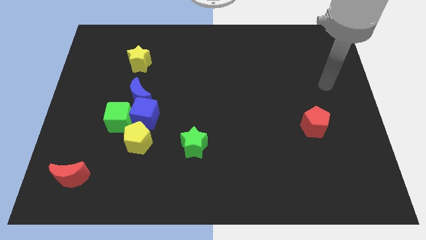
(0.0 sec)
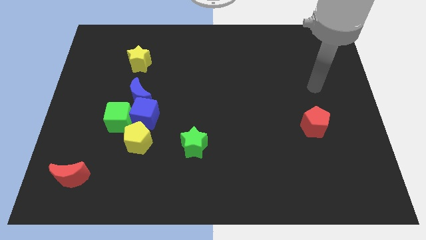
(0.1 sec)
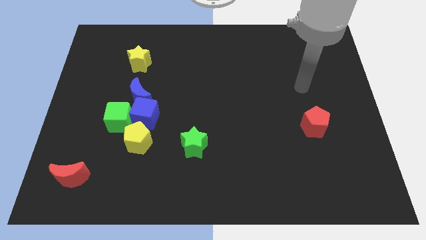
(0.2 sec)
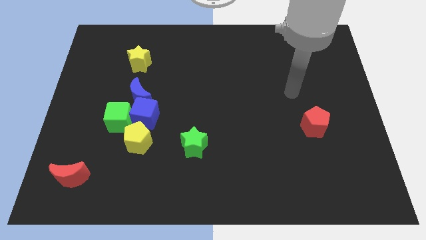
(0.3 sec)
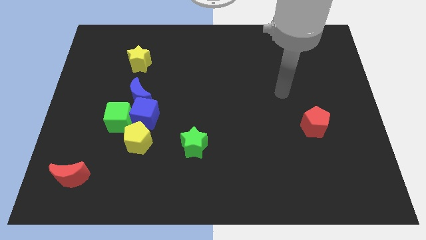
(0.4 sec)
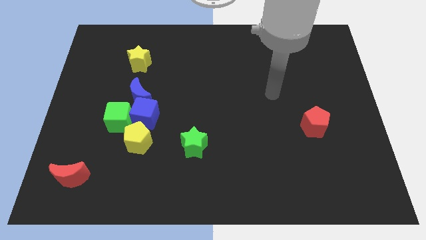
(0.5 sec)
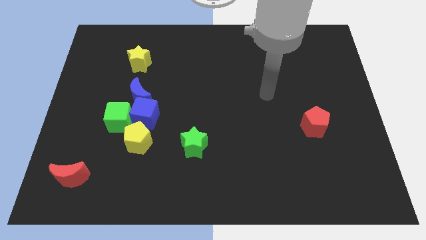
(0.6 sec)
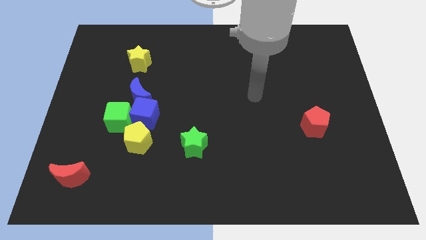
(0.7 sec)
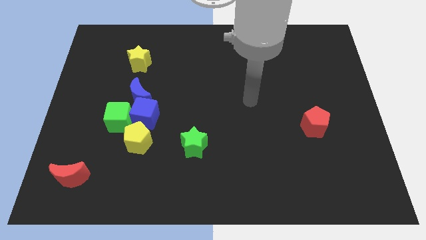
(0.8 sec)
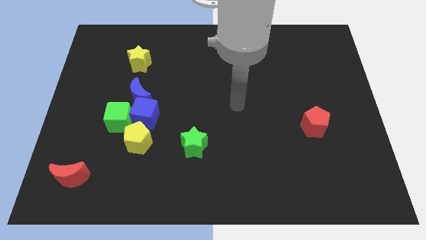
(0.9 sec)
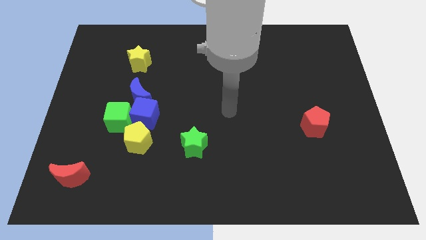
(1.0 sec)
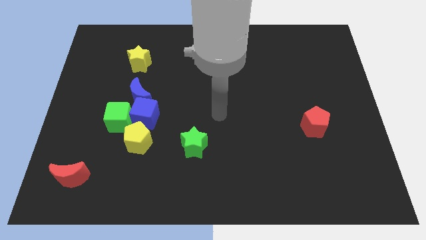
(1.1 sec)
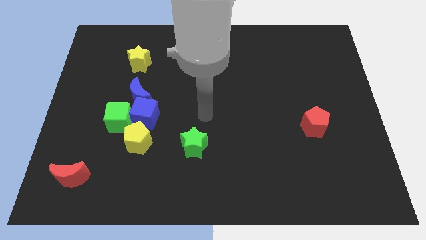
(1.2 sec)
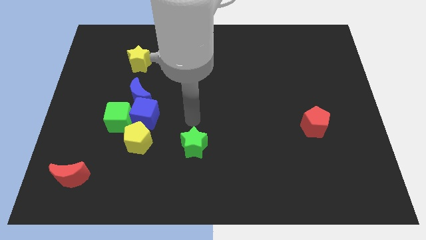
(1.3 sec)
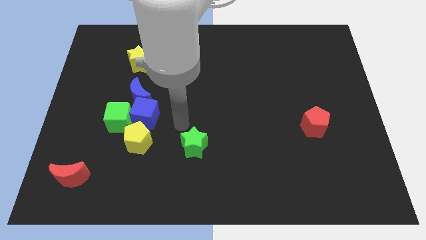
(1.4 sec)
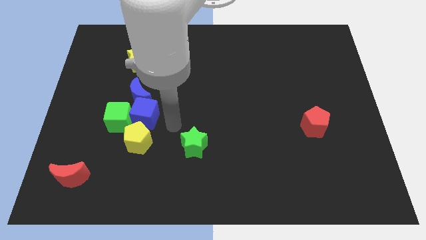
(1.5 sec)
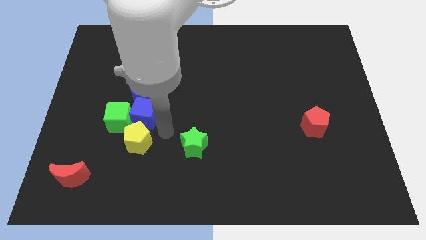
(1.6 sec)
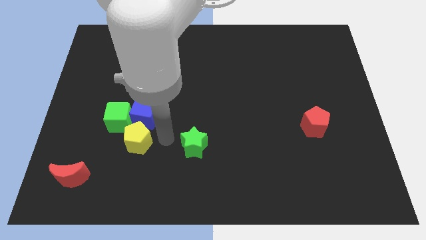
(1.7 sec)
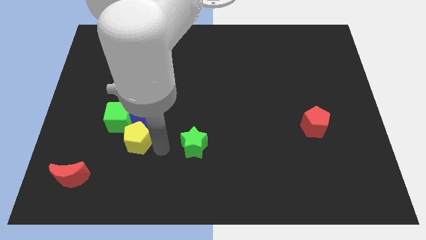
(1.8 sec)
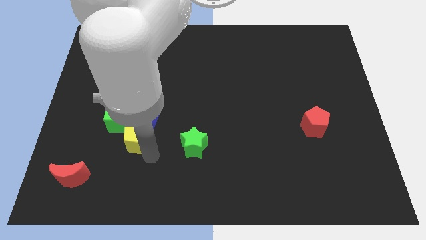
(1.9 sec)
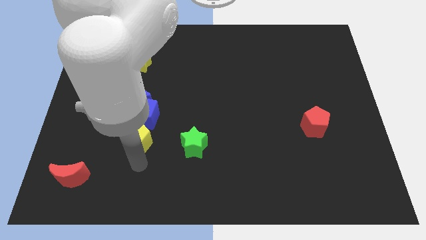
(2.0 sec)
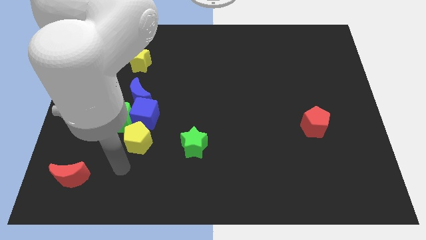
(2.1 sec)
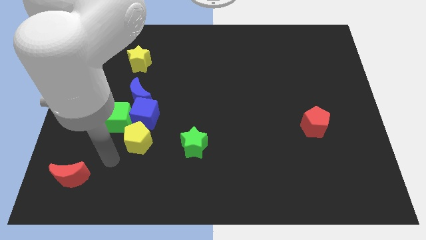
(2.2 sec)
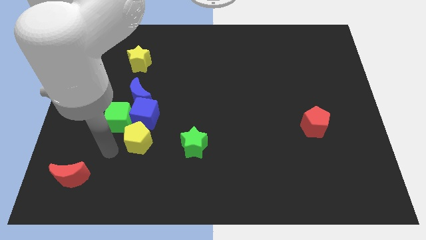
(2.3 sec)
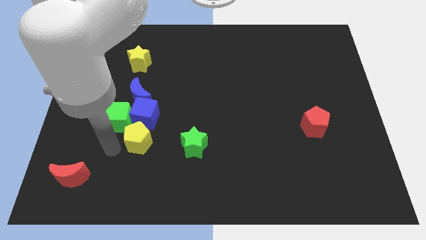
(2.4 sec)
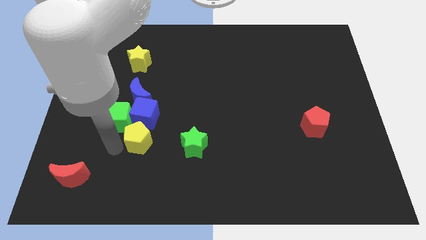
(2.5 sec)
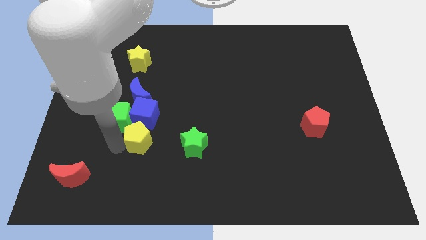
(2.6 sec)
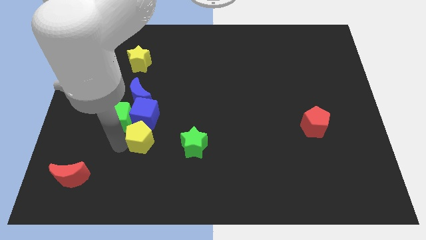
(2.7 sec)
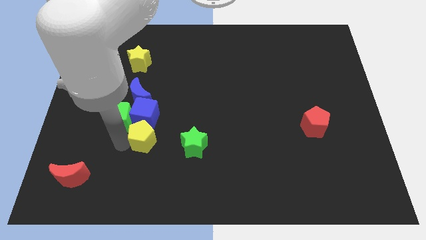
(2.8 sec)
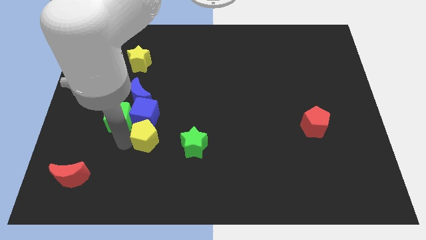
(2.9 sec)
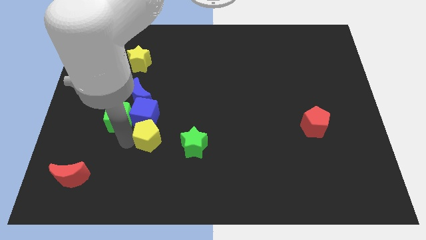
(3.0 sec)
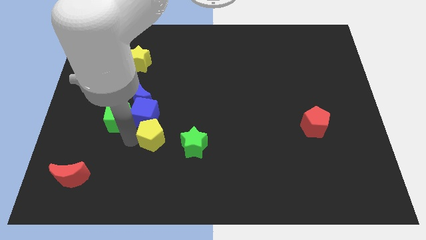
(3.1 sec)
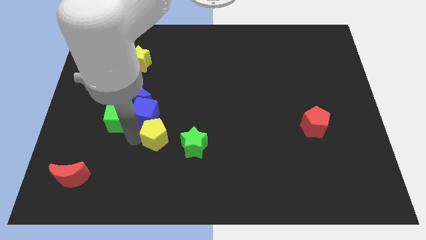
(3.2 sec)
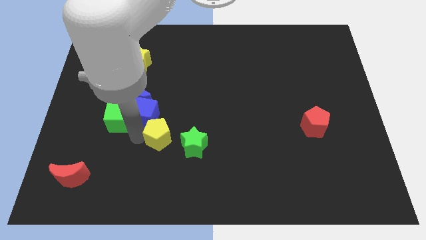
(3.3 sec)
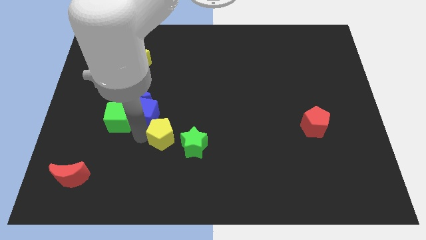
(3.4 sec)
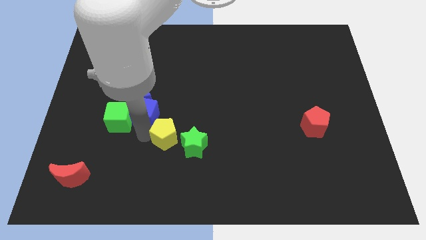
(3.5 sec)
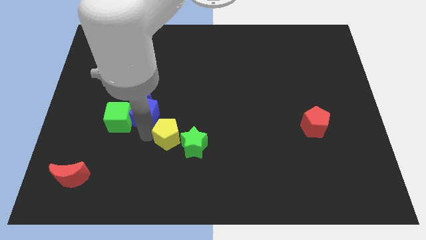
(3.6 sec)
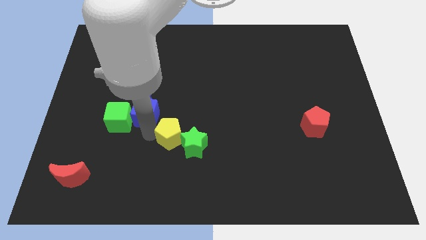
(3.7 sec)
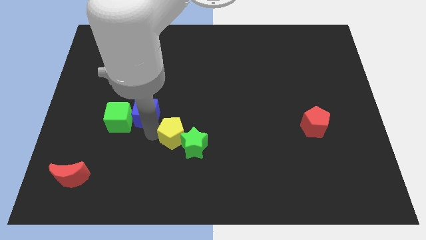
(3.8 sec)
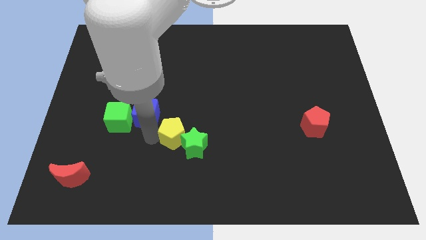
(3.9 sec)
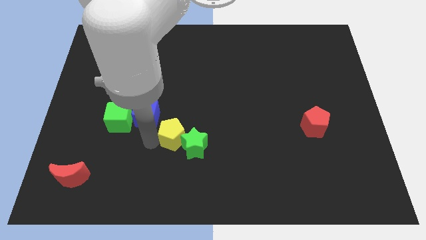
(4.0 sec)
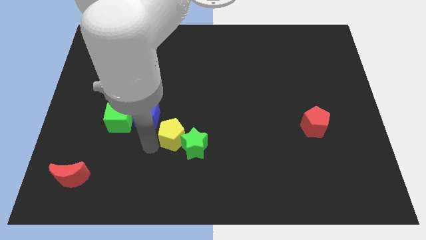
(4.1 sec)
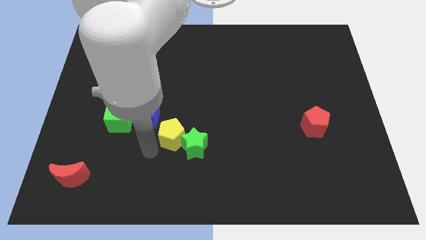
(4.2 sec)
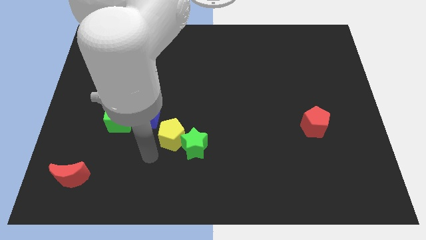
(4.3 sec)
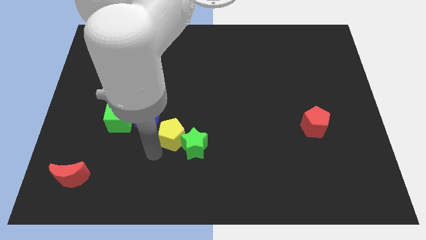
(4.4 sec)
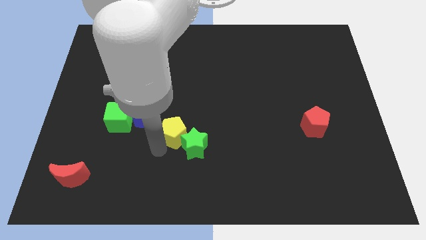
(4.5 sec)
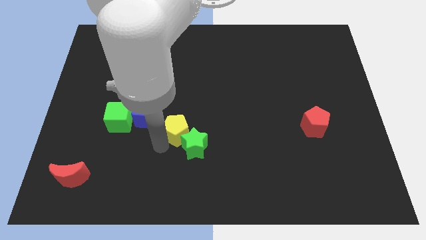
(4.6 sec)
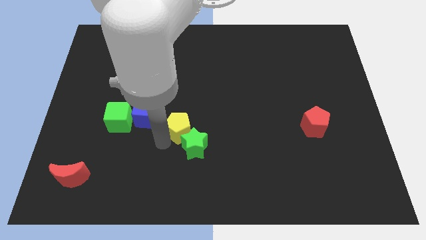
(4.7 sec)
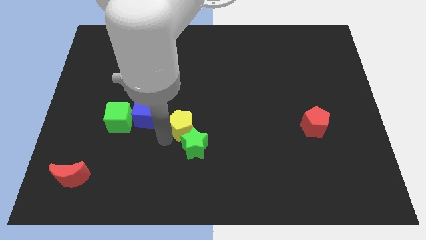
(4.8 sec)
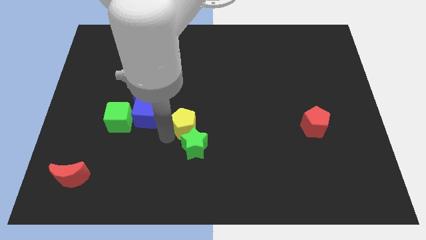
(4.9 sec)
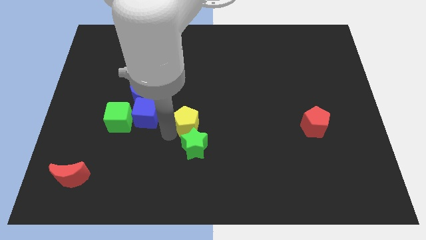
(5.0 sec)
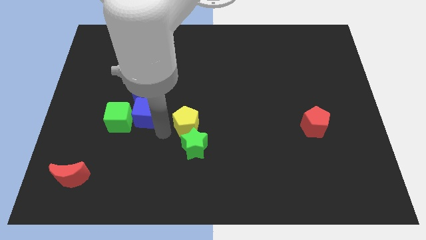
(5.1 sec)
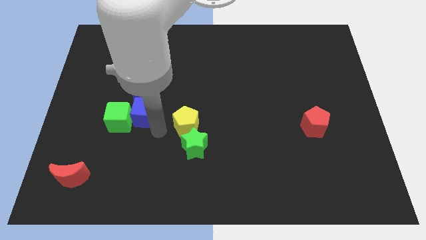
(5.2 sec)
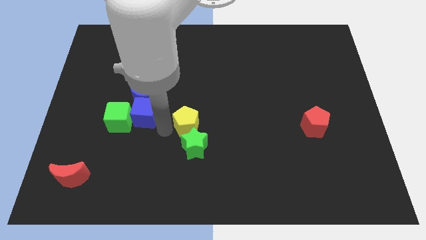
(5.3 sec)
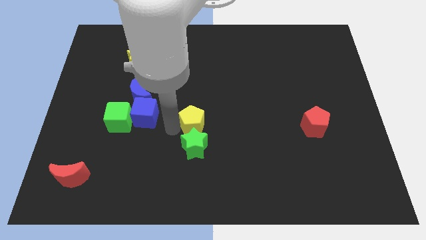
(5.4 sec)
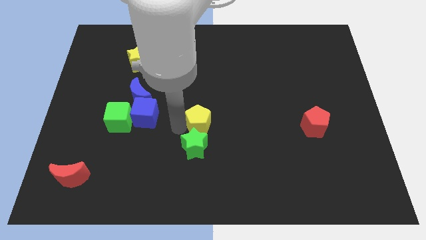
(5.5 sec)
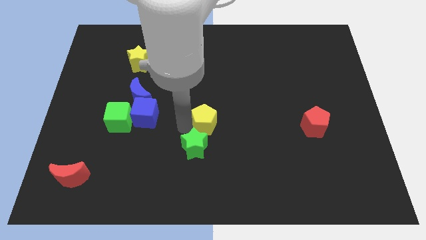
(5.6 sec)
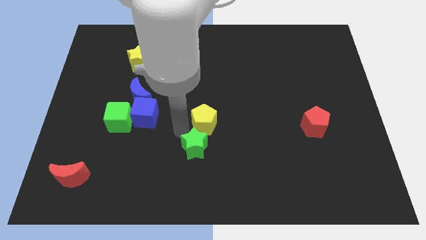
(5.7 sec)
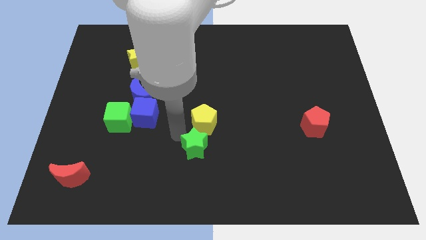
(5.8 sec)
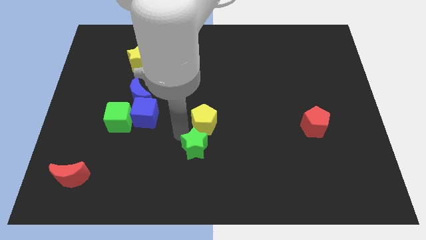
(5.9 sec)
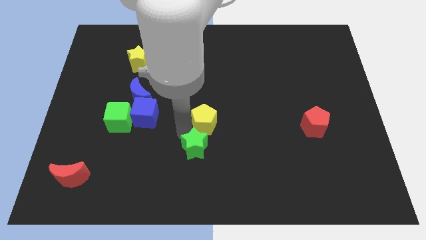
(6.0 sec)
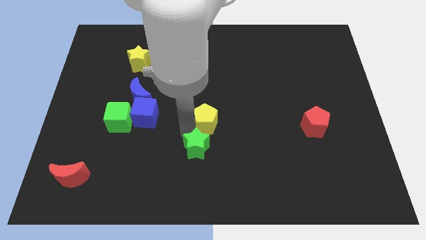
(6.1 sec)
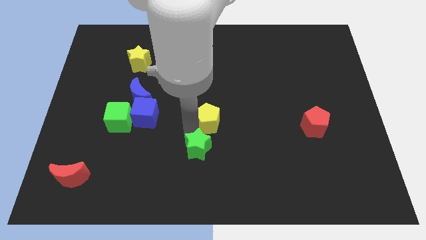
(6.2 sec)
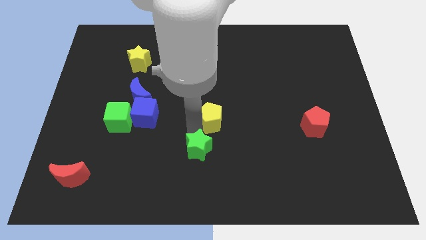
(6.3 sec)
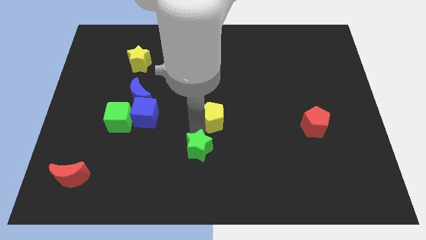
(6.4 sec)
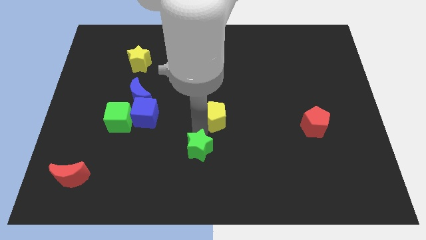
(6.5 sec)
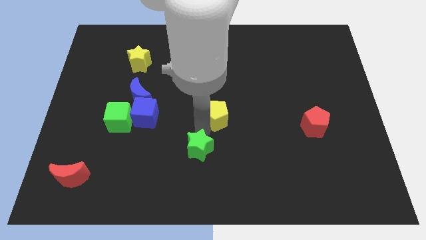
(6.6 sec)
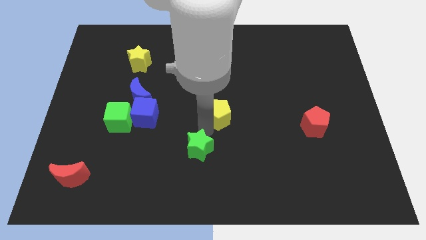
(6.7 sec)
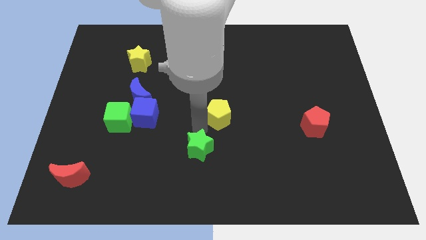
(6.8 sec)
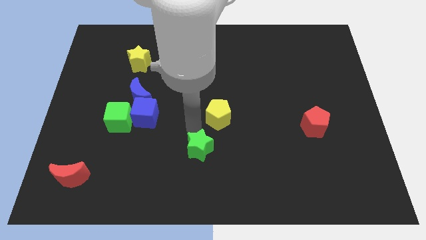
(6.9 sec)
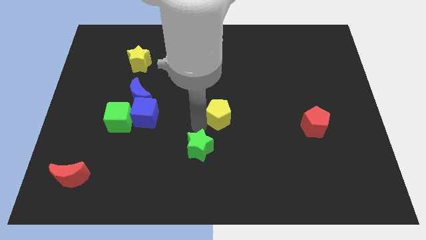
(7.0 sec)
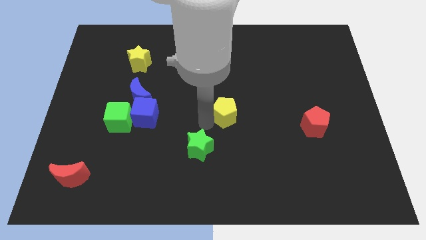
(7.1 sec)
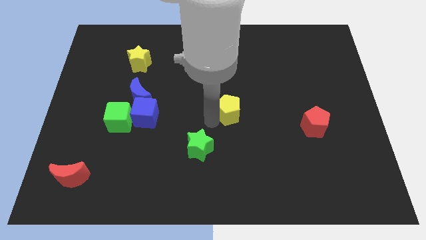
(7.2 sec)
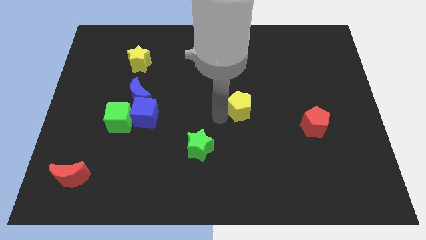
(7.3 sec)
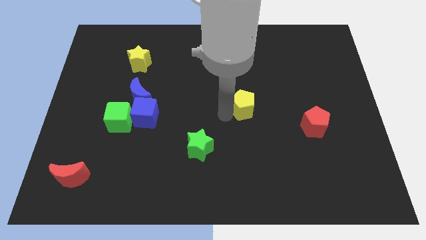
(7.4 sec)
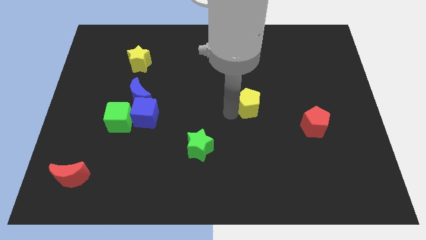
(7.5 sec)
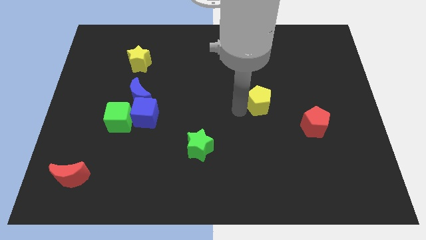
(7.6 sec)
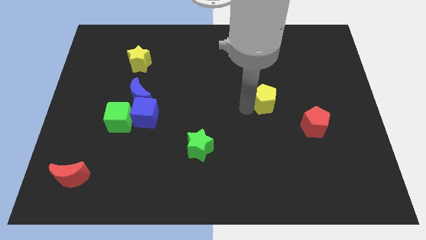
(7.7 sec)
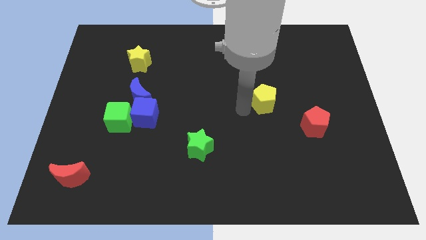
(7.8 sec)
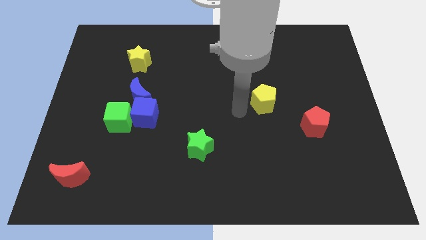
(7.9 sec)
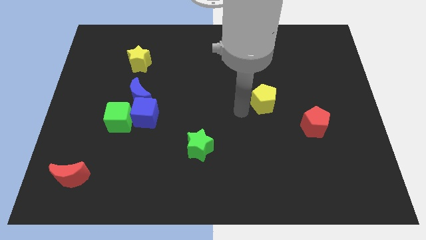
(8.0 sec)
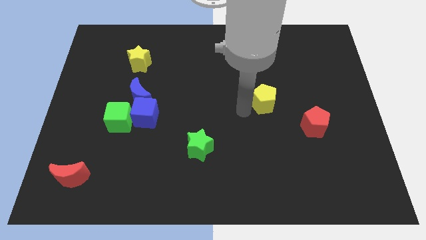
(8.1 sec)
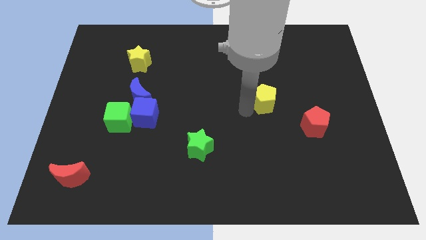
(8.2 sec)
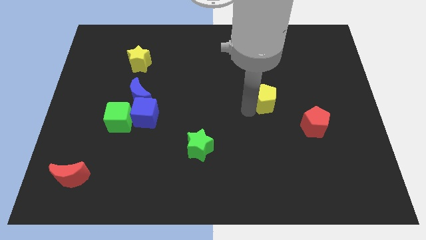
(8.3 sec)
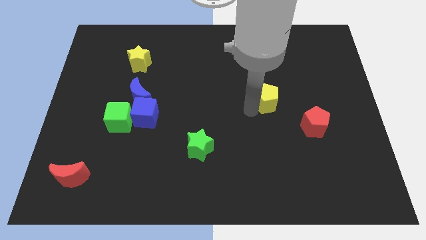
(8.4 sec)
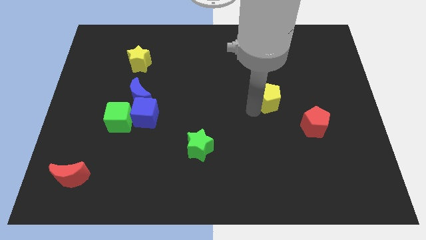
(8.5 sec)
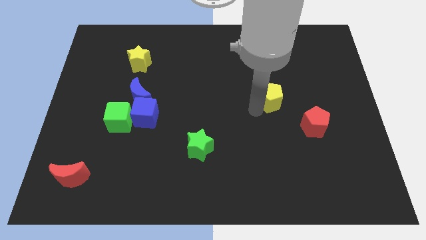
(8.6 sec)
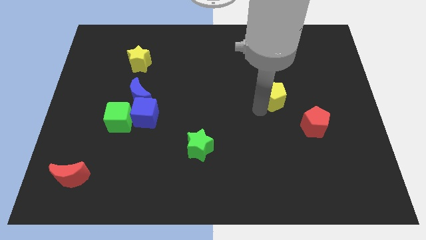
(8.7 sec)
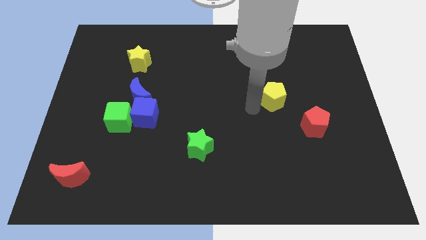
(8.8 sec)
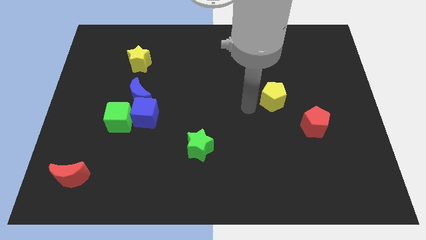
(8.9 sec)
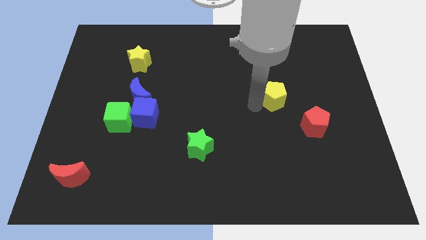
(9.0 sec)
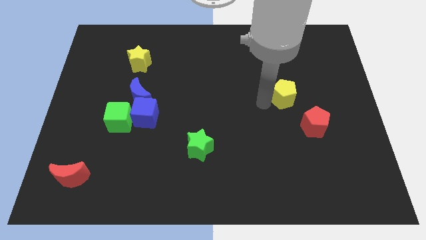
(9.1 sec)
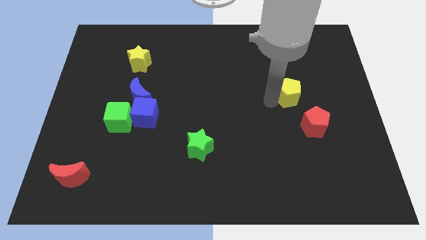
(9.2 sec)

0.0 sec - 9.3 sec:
move the yellow pentagon to the top of the red pentagon
